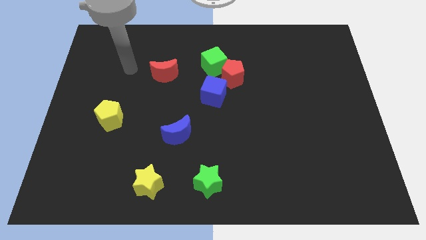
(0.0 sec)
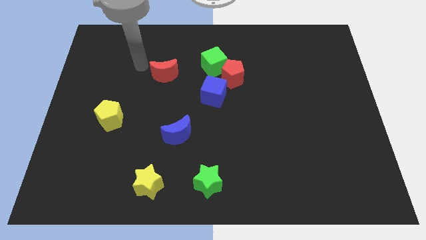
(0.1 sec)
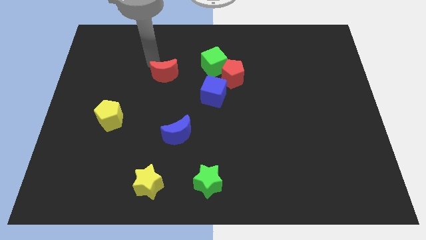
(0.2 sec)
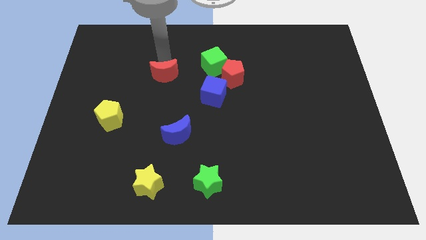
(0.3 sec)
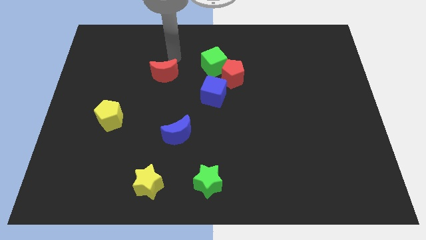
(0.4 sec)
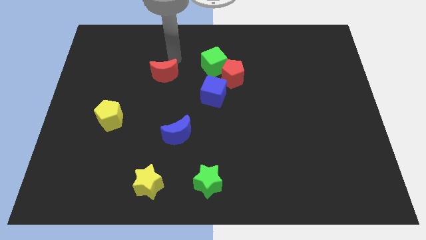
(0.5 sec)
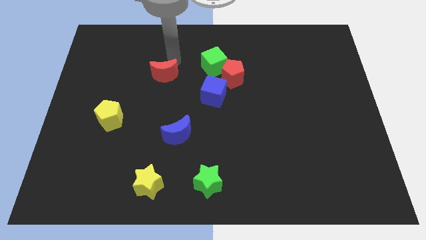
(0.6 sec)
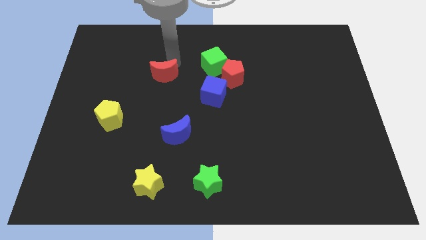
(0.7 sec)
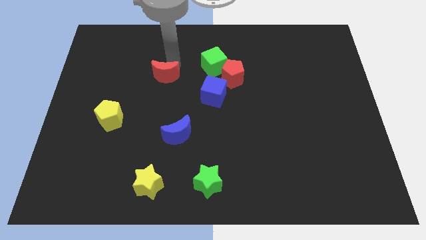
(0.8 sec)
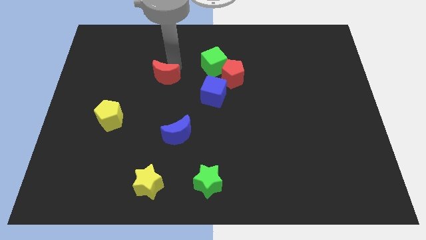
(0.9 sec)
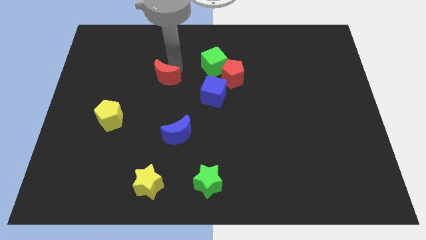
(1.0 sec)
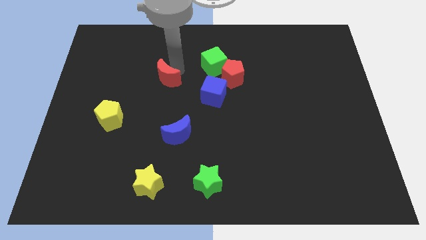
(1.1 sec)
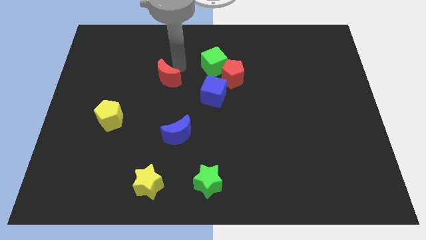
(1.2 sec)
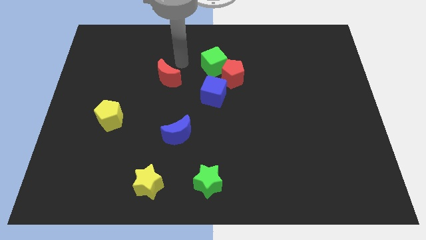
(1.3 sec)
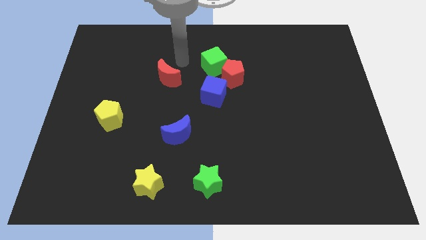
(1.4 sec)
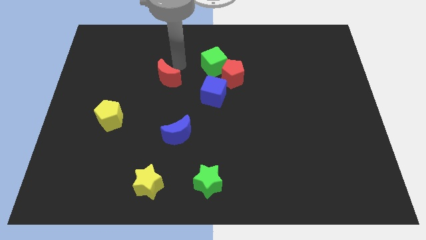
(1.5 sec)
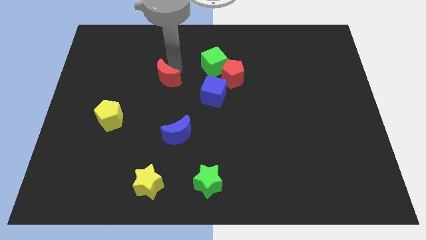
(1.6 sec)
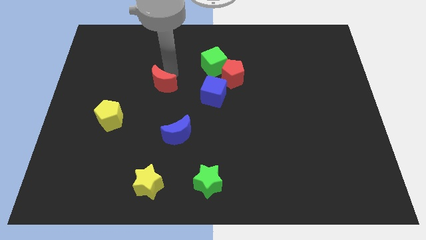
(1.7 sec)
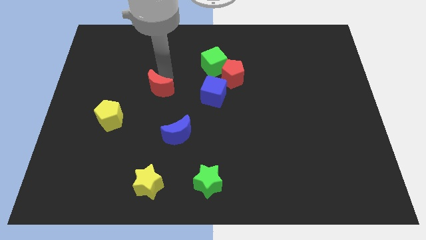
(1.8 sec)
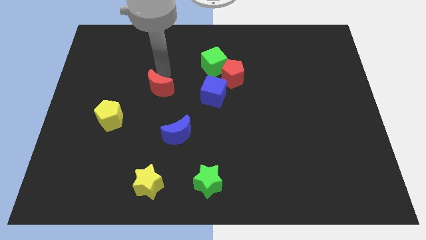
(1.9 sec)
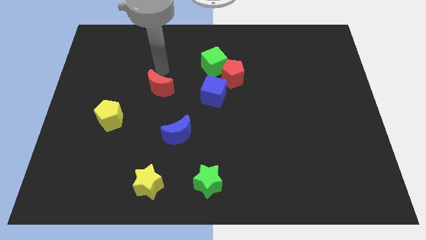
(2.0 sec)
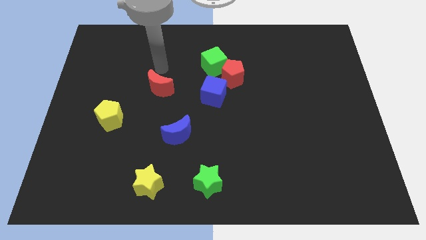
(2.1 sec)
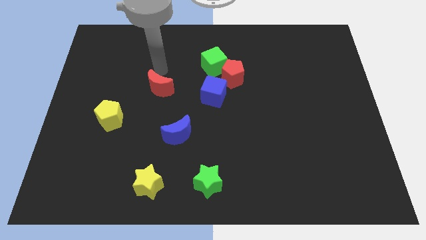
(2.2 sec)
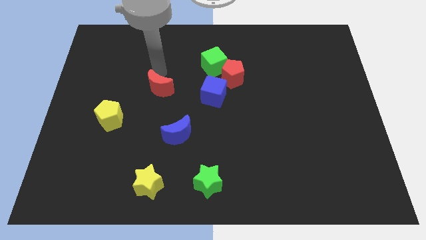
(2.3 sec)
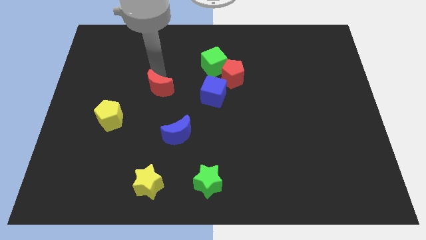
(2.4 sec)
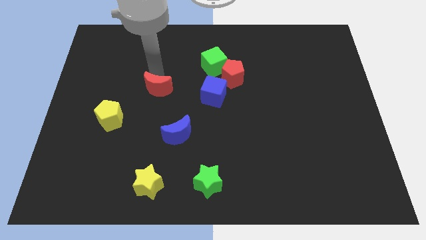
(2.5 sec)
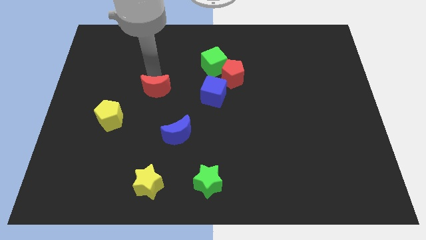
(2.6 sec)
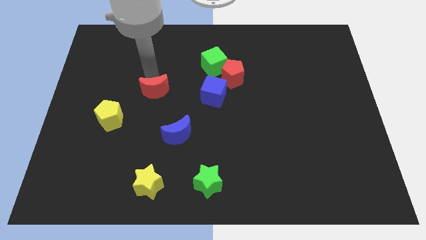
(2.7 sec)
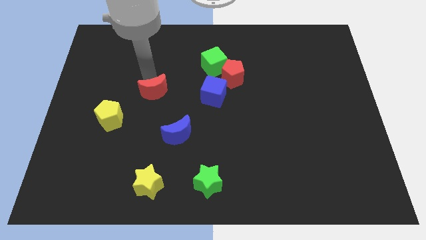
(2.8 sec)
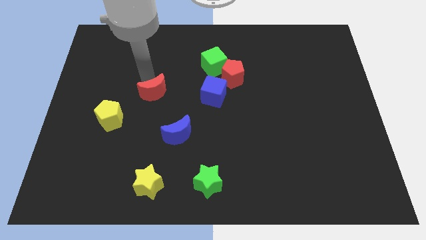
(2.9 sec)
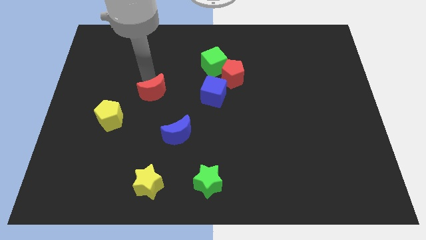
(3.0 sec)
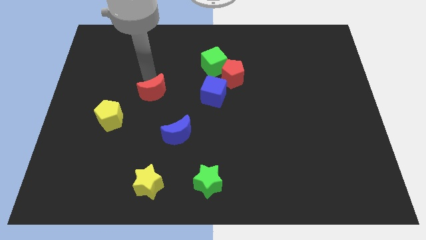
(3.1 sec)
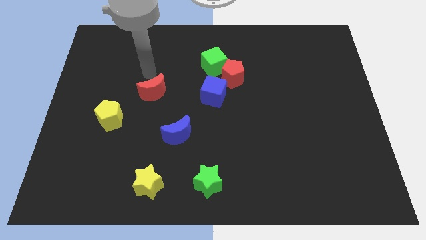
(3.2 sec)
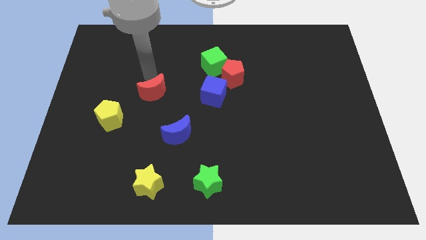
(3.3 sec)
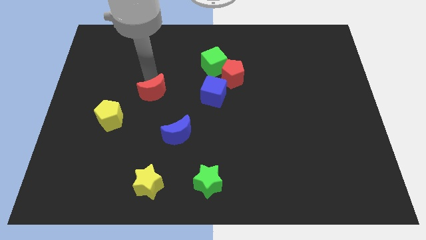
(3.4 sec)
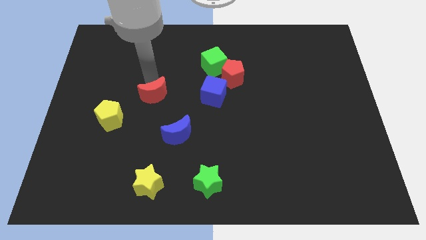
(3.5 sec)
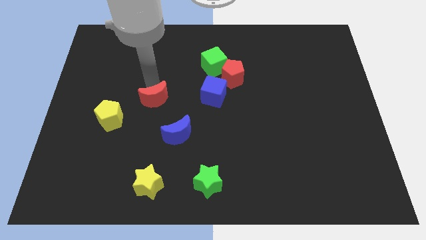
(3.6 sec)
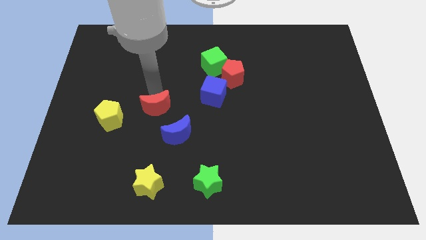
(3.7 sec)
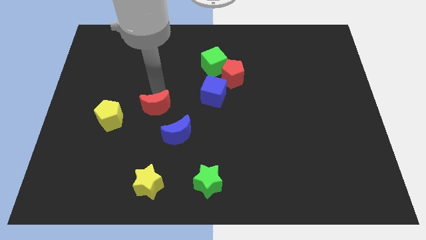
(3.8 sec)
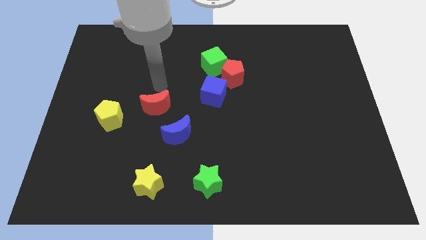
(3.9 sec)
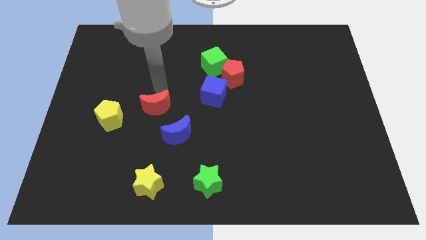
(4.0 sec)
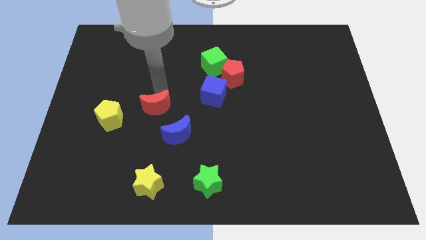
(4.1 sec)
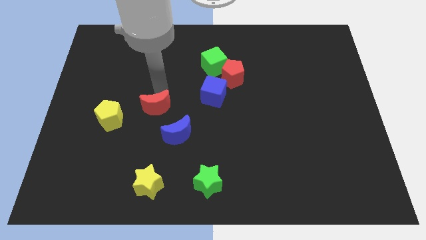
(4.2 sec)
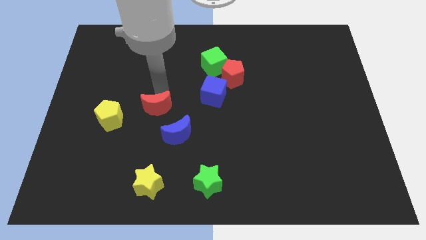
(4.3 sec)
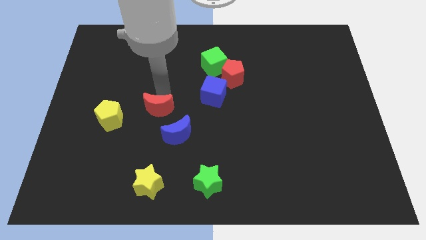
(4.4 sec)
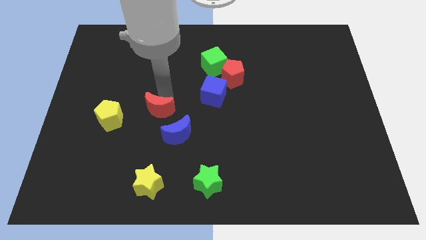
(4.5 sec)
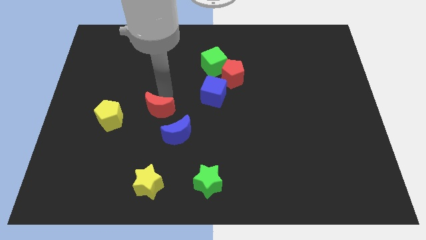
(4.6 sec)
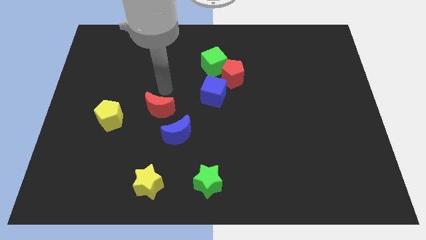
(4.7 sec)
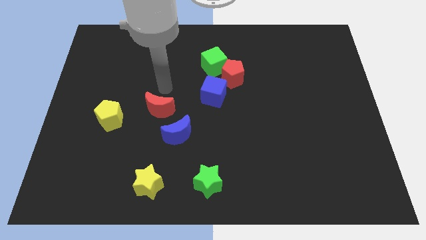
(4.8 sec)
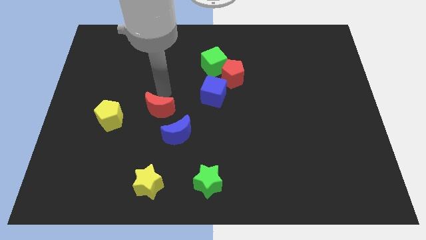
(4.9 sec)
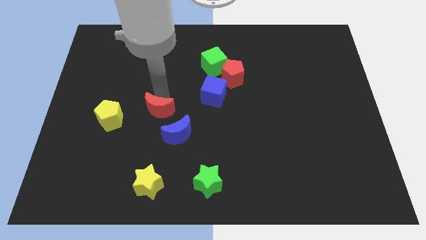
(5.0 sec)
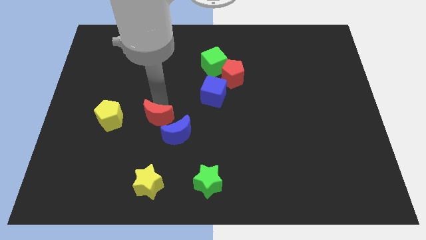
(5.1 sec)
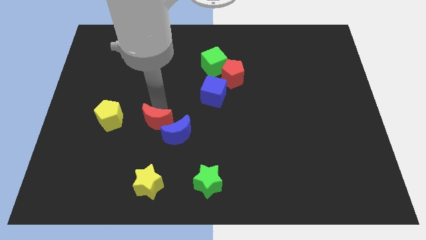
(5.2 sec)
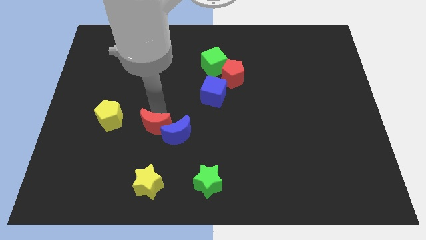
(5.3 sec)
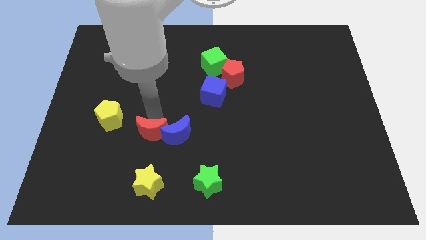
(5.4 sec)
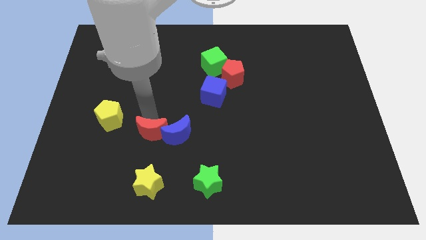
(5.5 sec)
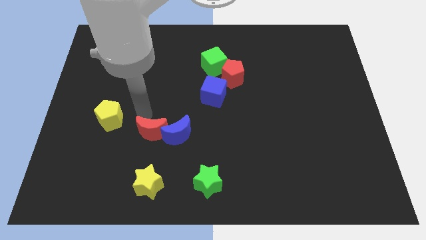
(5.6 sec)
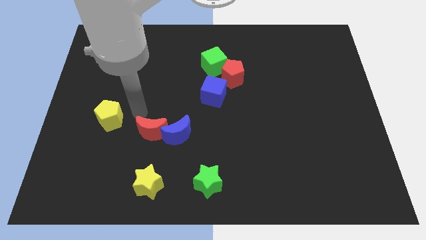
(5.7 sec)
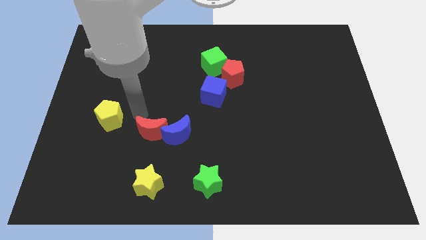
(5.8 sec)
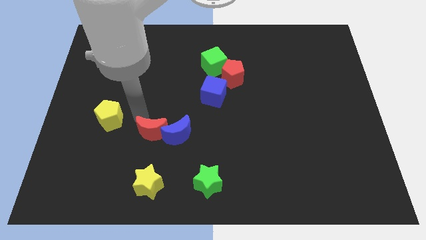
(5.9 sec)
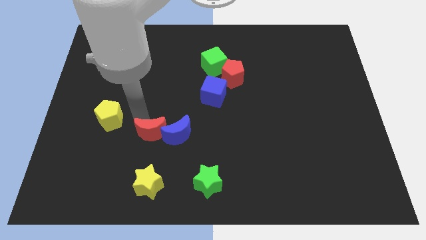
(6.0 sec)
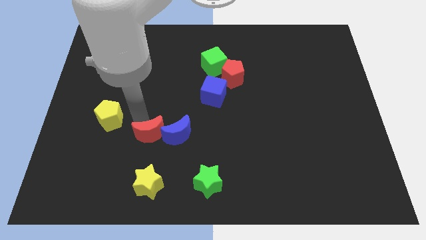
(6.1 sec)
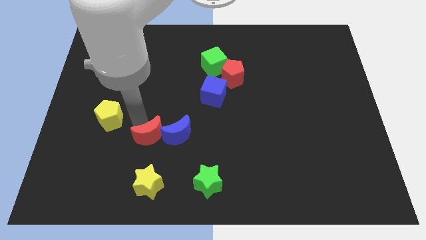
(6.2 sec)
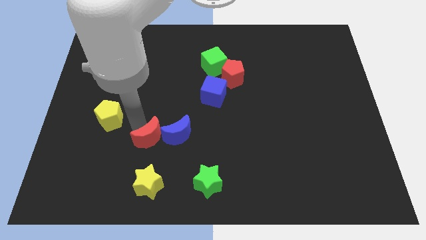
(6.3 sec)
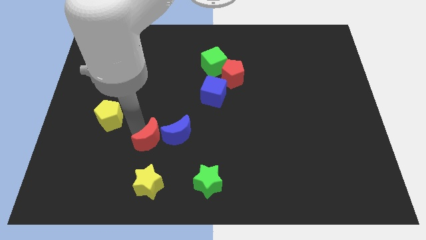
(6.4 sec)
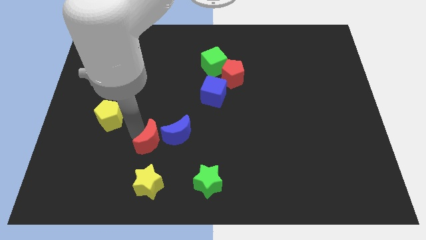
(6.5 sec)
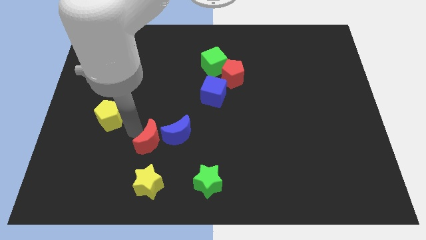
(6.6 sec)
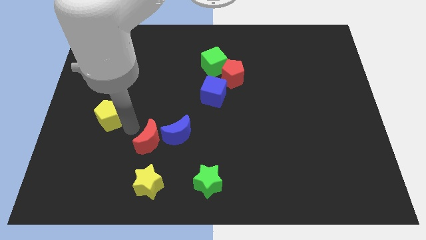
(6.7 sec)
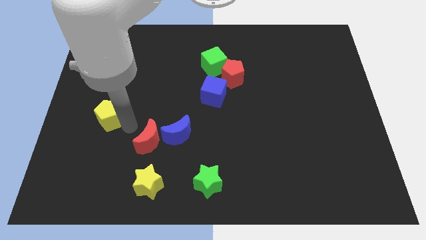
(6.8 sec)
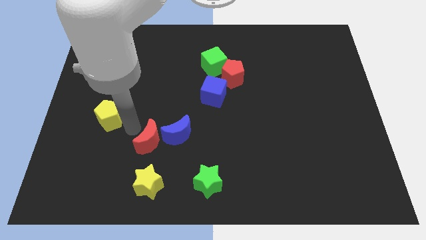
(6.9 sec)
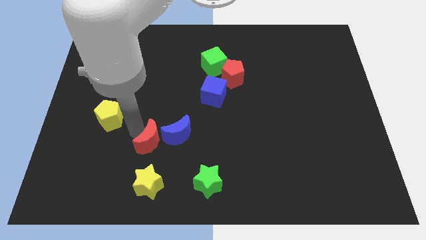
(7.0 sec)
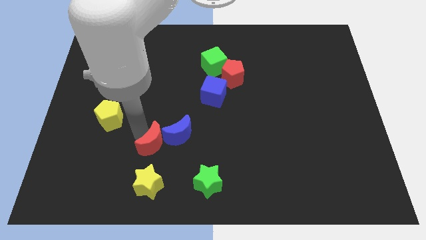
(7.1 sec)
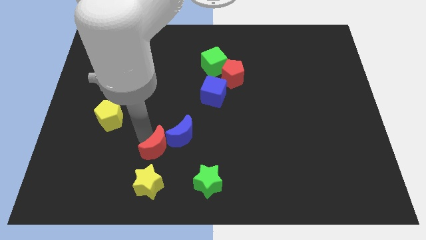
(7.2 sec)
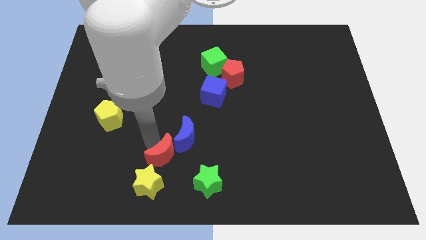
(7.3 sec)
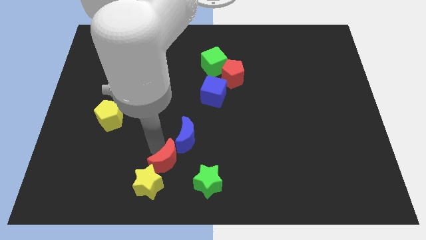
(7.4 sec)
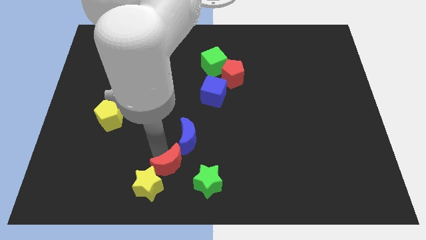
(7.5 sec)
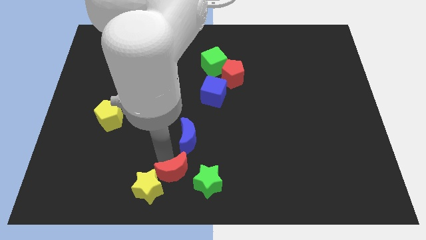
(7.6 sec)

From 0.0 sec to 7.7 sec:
move the red moon to the bottom side
